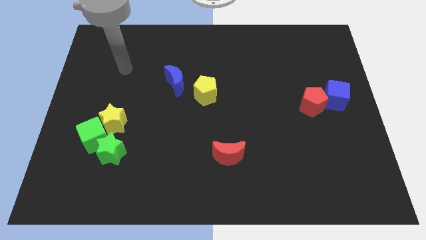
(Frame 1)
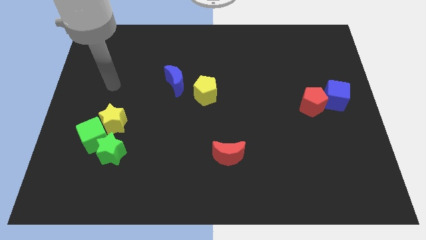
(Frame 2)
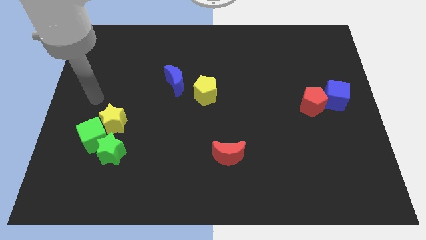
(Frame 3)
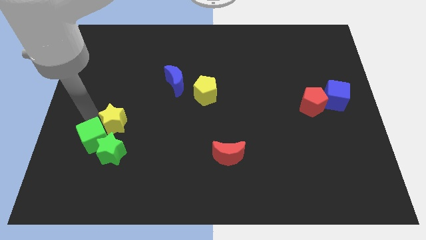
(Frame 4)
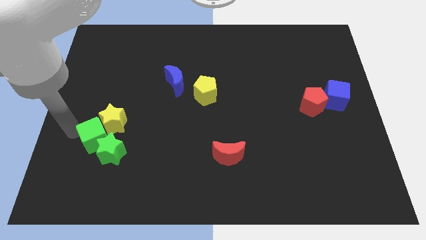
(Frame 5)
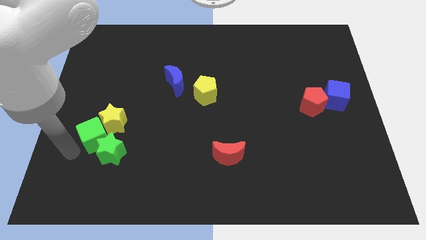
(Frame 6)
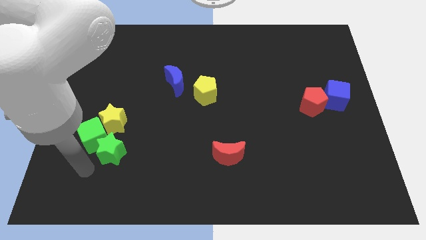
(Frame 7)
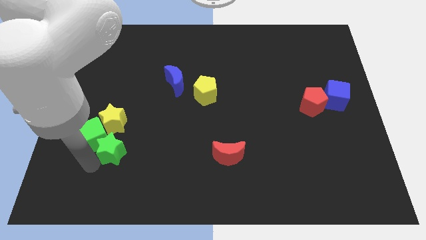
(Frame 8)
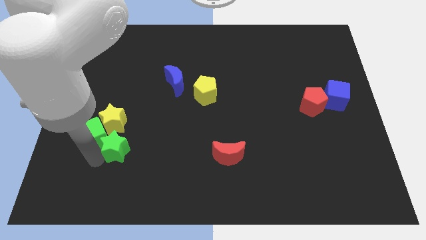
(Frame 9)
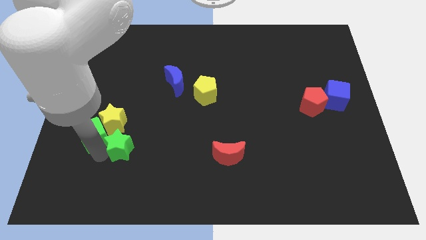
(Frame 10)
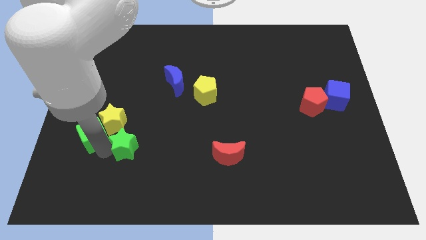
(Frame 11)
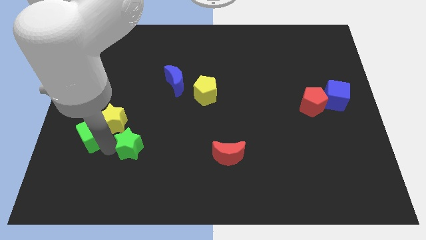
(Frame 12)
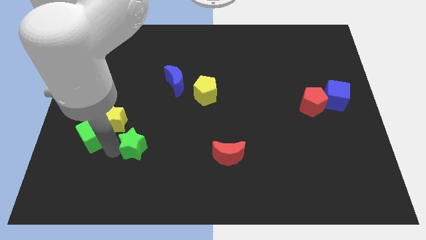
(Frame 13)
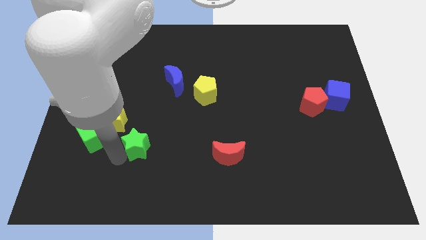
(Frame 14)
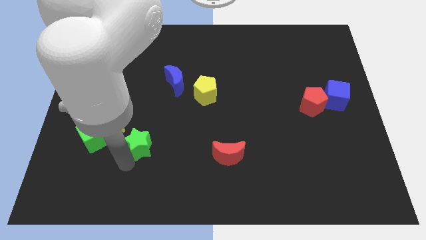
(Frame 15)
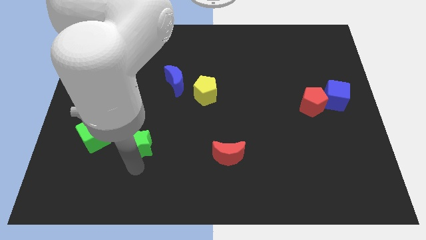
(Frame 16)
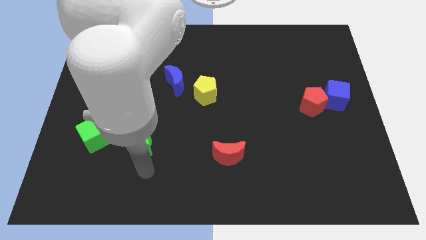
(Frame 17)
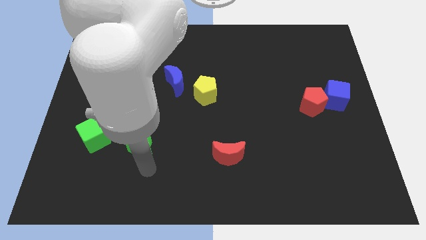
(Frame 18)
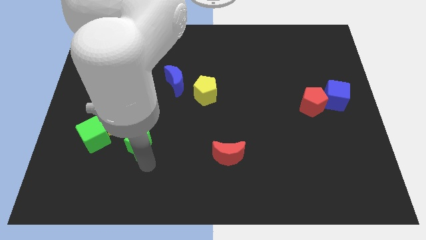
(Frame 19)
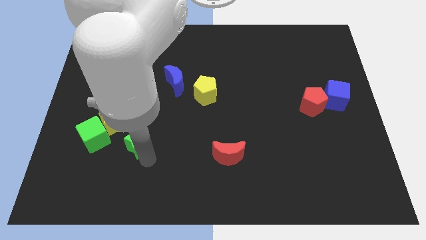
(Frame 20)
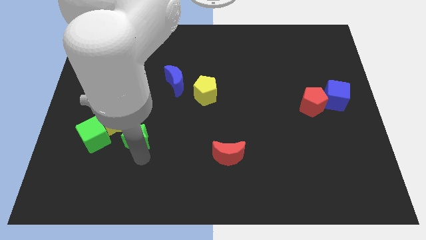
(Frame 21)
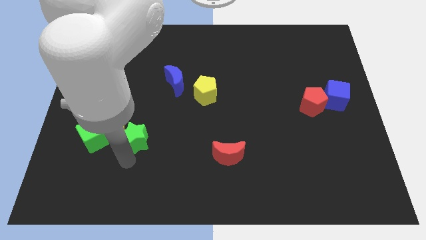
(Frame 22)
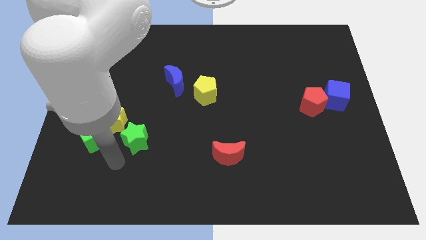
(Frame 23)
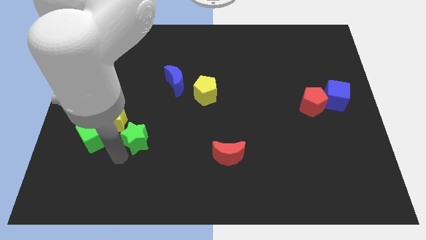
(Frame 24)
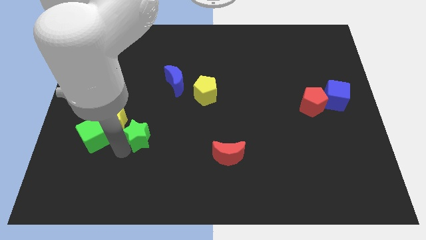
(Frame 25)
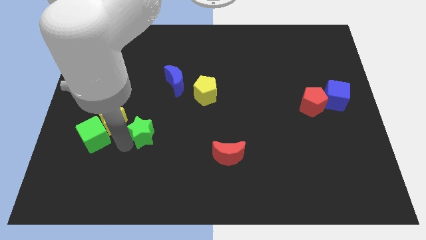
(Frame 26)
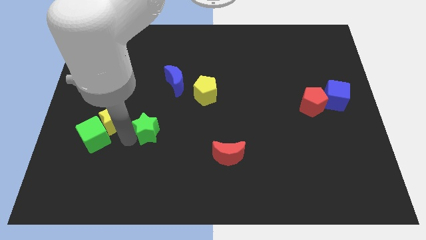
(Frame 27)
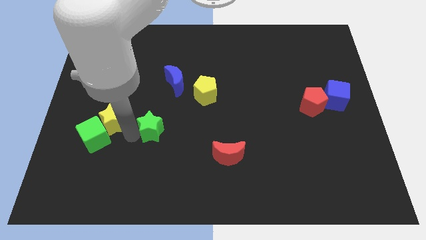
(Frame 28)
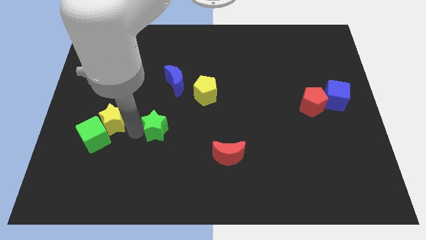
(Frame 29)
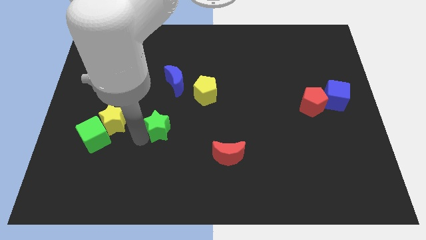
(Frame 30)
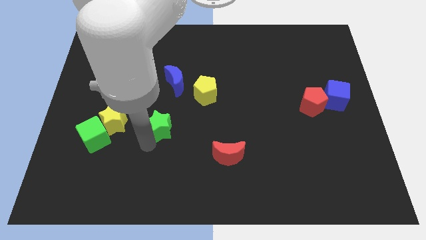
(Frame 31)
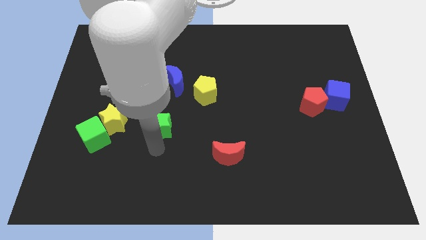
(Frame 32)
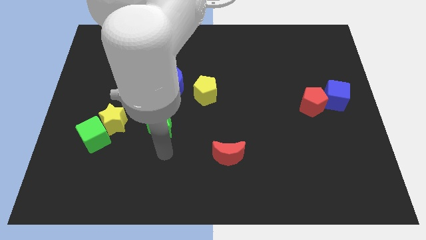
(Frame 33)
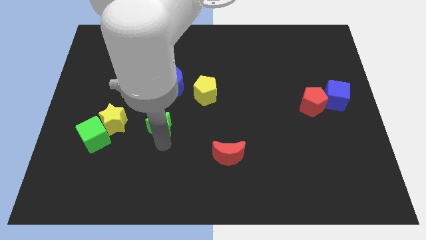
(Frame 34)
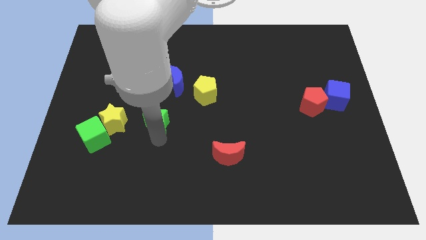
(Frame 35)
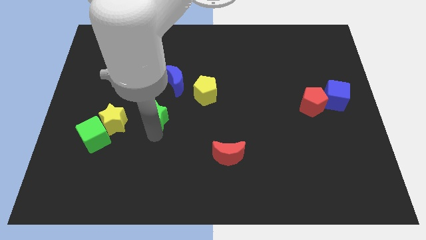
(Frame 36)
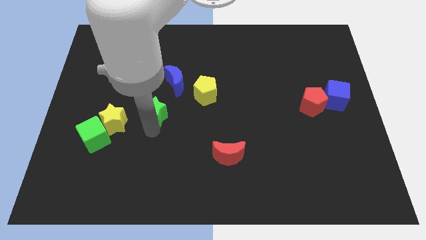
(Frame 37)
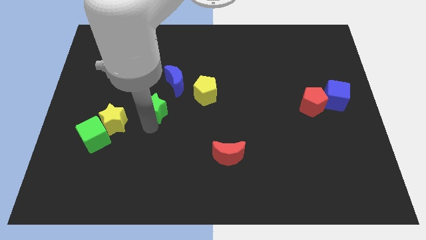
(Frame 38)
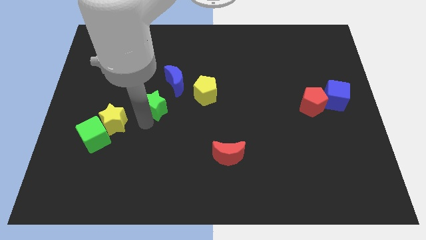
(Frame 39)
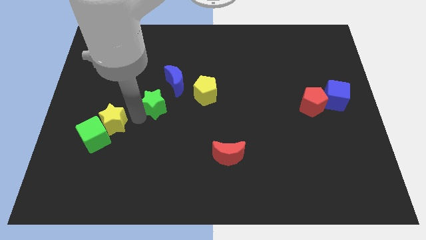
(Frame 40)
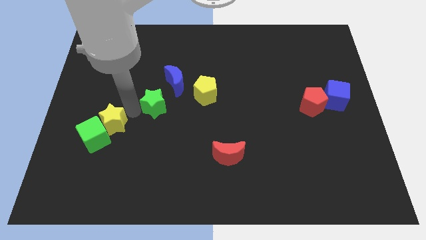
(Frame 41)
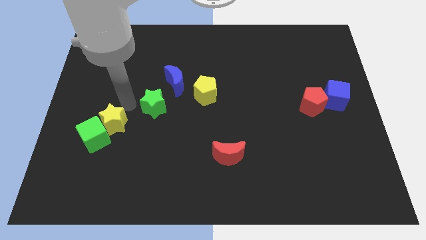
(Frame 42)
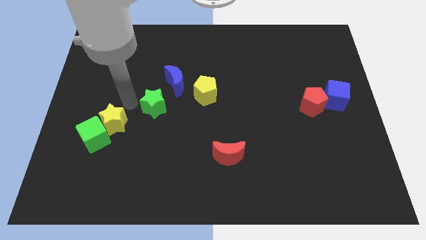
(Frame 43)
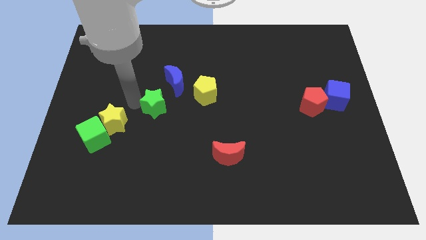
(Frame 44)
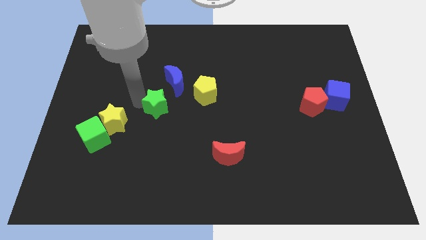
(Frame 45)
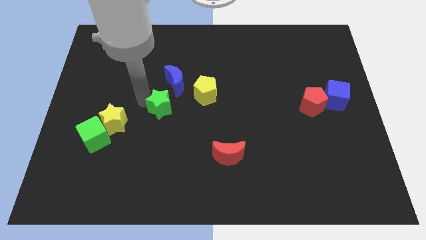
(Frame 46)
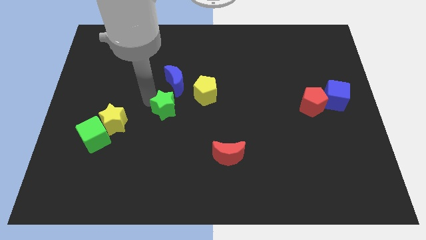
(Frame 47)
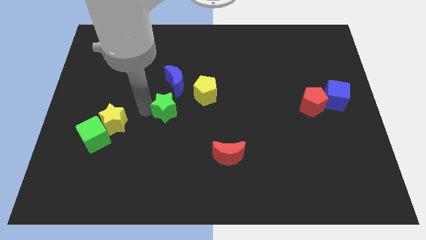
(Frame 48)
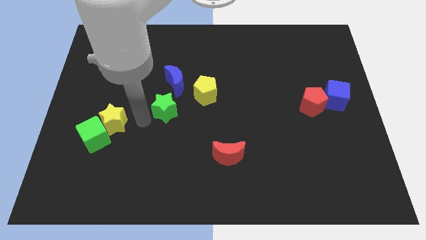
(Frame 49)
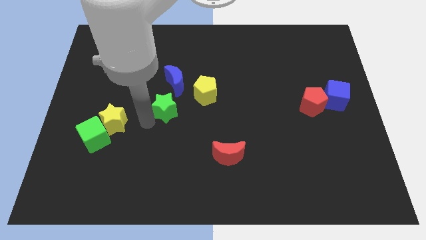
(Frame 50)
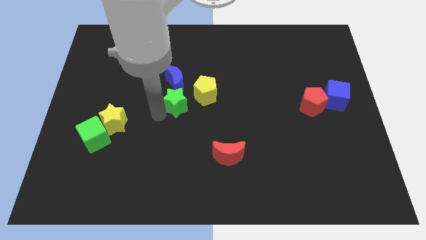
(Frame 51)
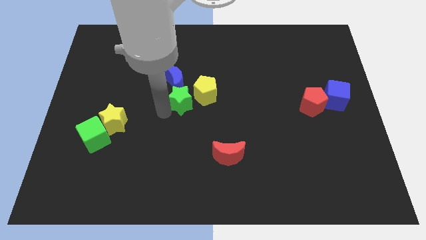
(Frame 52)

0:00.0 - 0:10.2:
slide the green star upwards and to the right diagonally

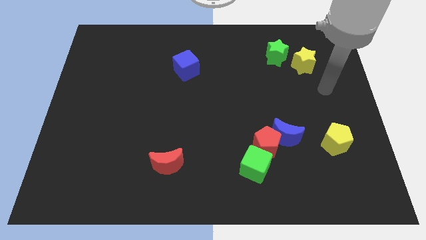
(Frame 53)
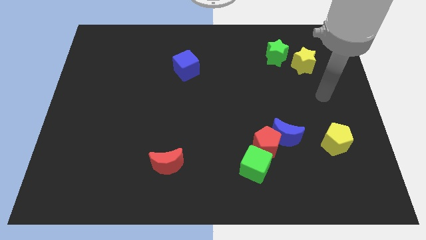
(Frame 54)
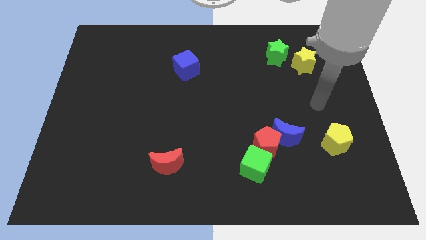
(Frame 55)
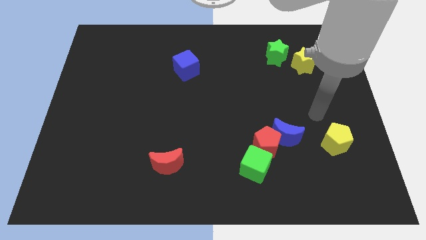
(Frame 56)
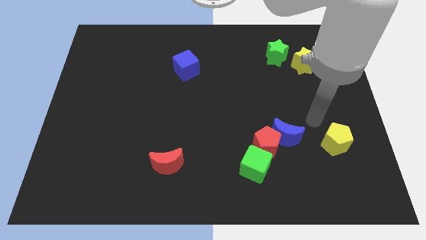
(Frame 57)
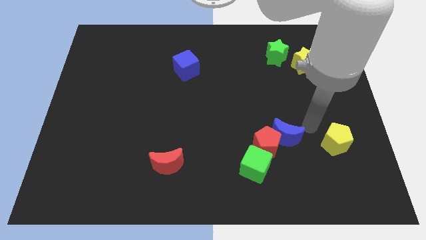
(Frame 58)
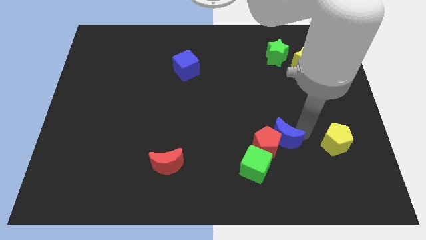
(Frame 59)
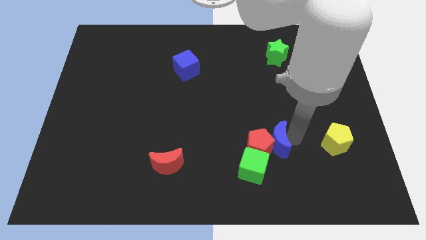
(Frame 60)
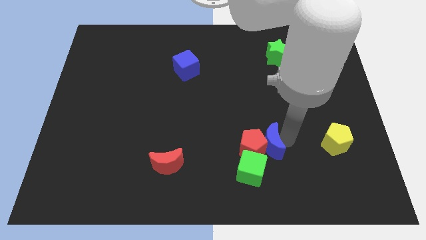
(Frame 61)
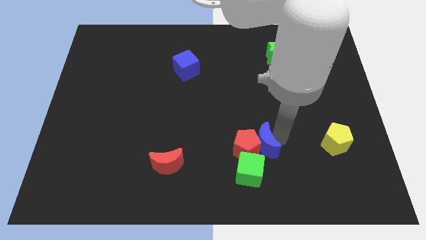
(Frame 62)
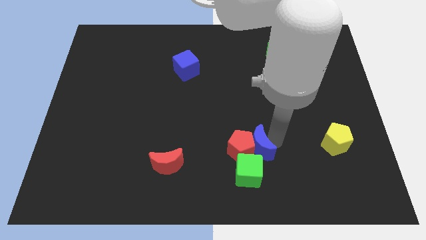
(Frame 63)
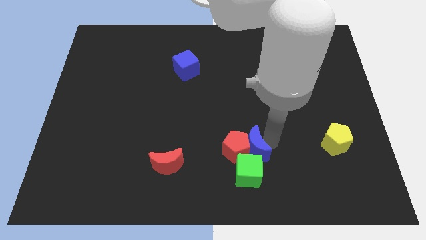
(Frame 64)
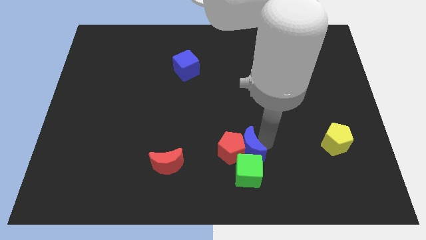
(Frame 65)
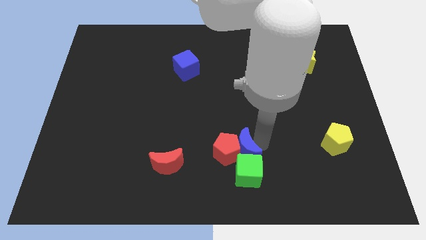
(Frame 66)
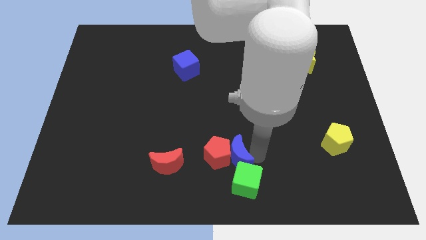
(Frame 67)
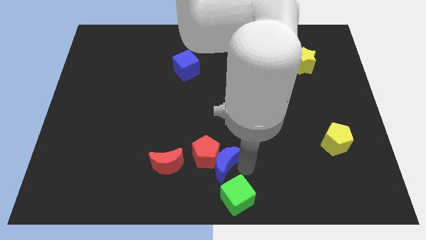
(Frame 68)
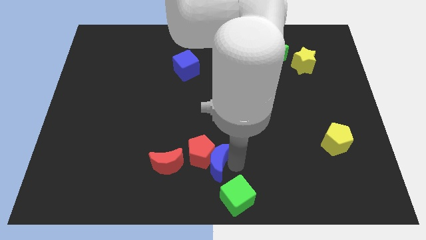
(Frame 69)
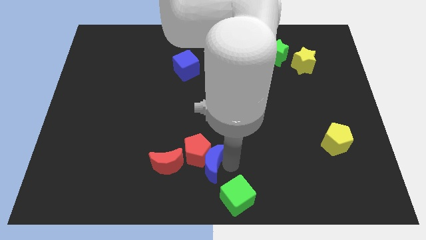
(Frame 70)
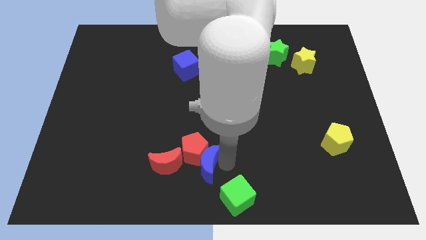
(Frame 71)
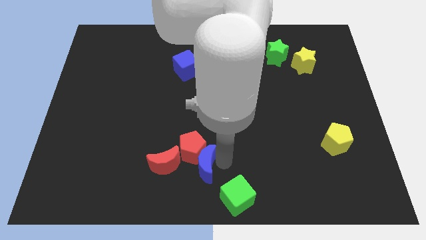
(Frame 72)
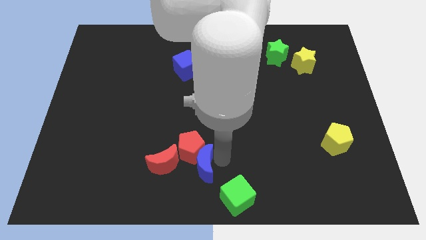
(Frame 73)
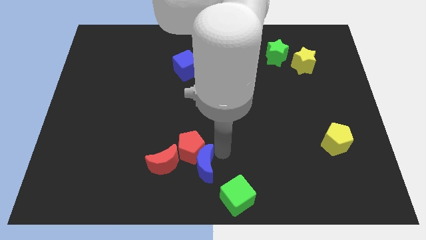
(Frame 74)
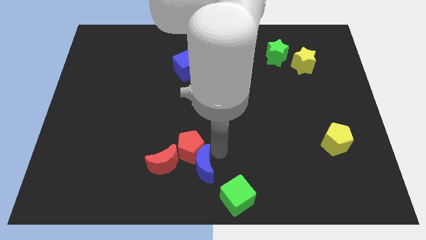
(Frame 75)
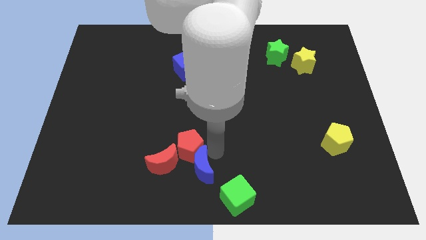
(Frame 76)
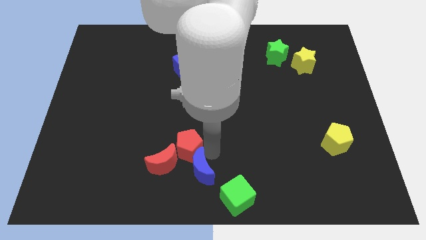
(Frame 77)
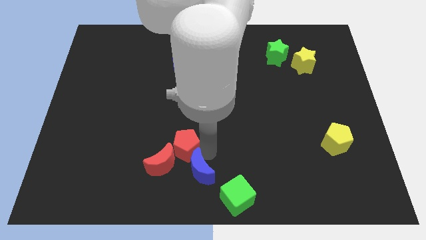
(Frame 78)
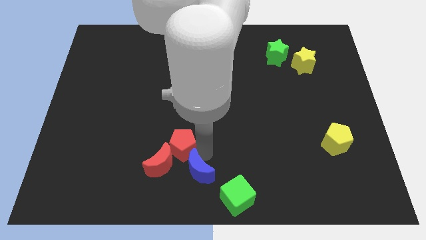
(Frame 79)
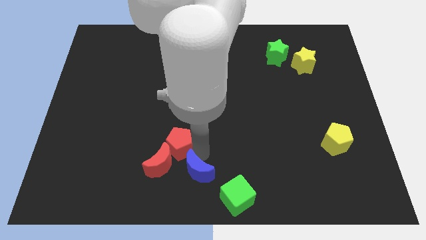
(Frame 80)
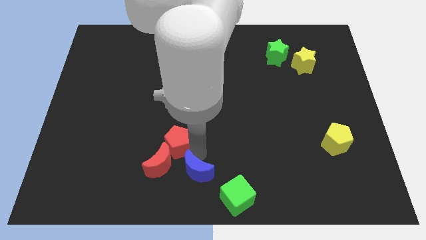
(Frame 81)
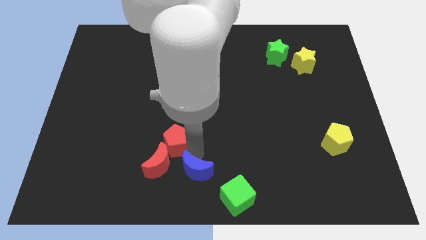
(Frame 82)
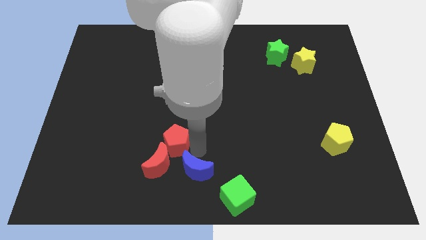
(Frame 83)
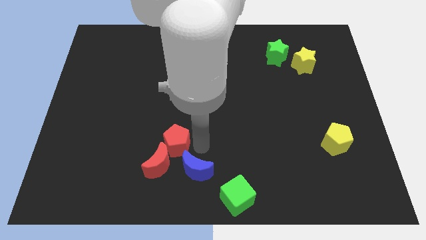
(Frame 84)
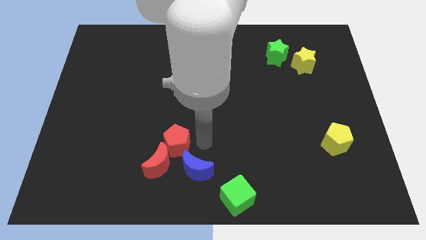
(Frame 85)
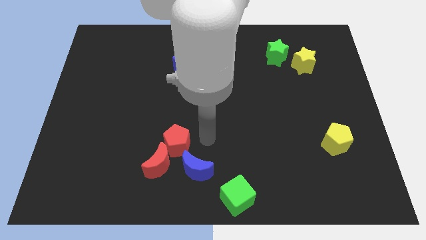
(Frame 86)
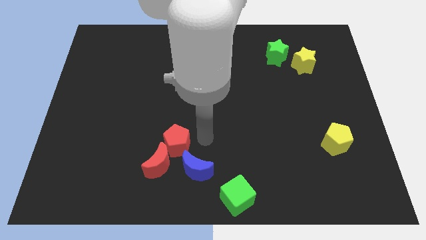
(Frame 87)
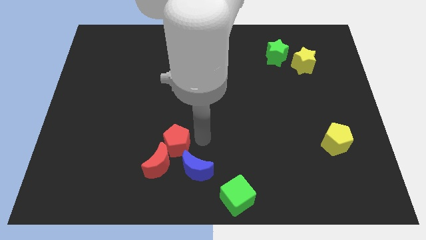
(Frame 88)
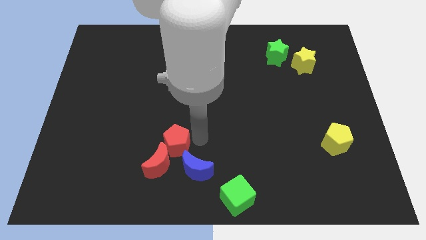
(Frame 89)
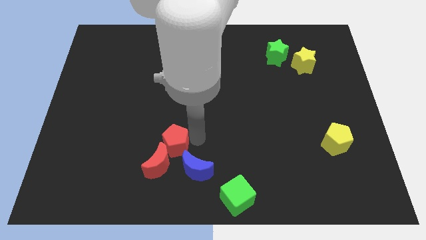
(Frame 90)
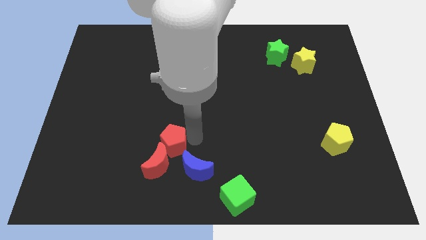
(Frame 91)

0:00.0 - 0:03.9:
slide the red pentagon left
